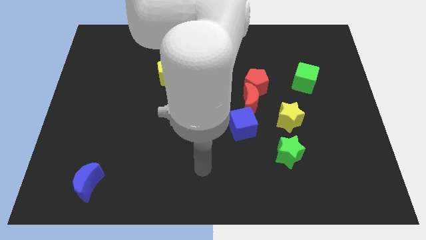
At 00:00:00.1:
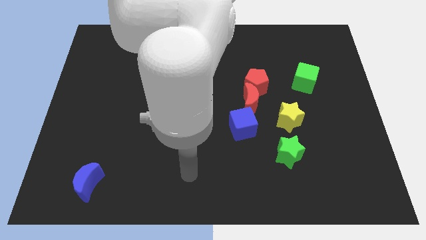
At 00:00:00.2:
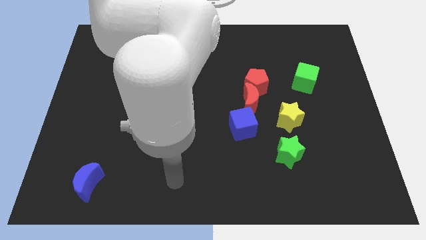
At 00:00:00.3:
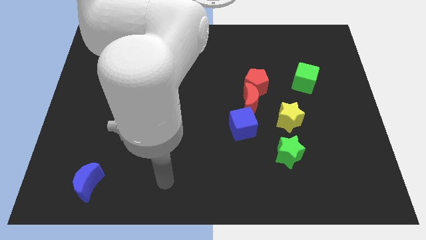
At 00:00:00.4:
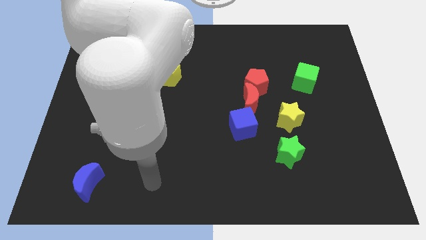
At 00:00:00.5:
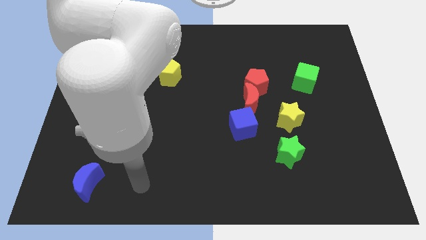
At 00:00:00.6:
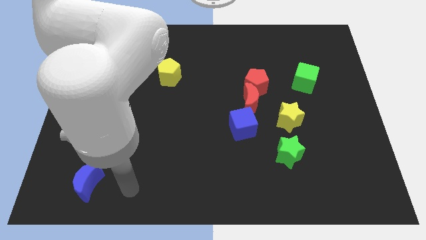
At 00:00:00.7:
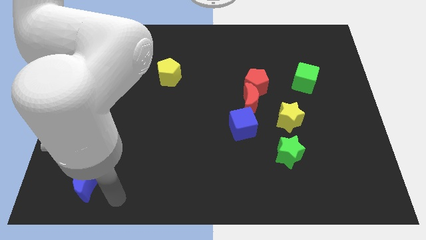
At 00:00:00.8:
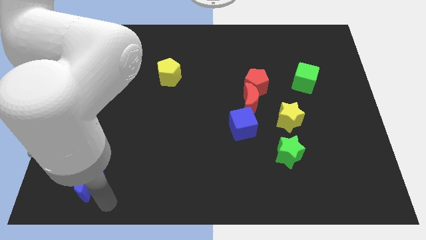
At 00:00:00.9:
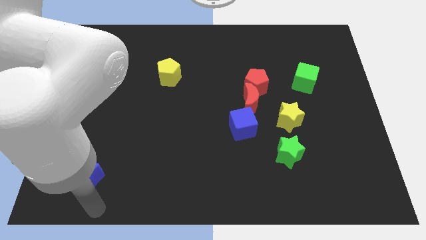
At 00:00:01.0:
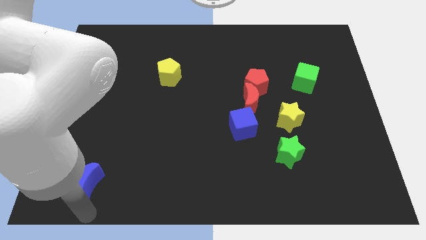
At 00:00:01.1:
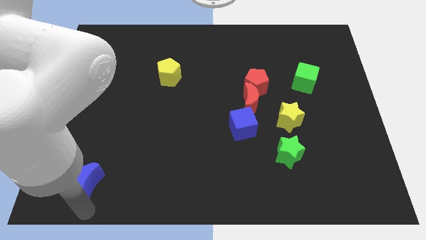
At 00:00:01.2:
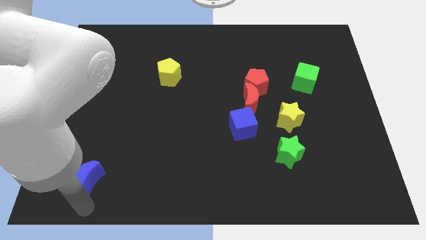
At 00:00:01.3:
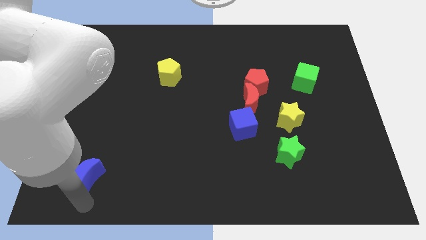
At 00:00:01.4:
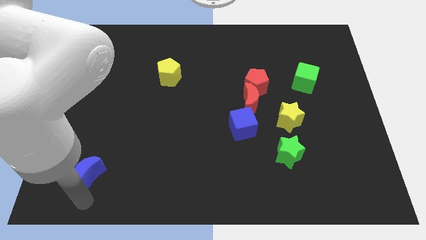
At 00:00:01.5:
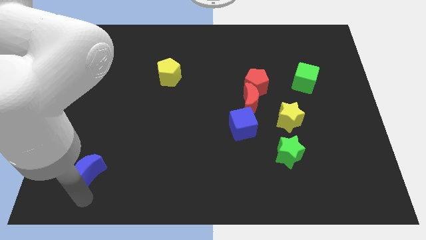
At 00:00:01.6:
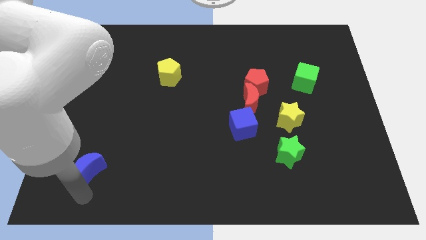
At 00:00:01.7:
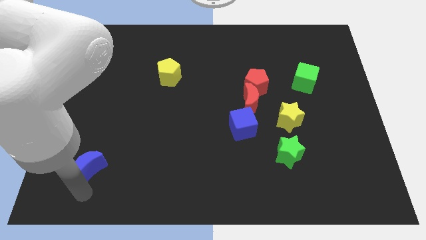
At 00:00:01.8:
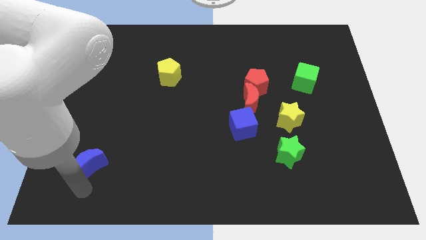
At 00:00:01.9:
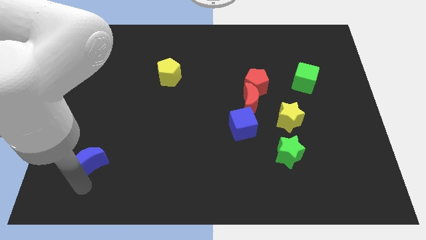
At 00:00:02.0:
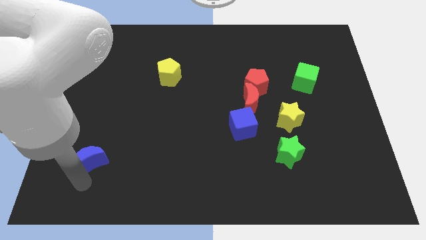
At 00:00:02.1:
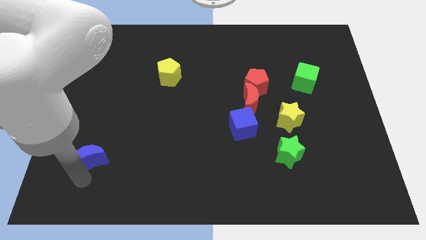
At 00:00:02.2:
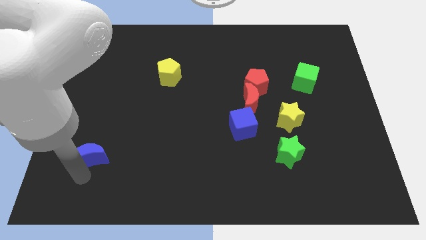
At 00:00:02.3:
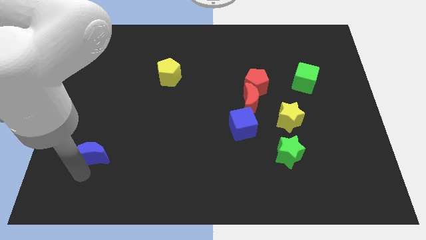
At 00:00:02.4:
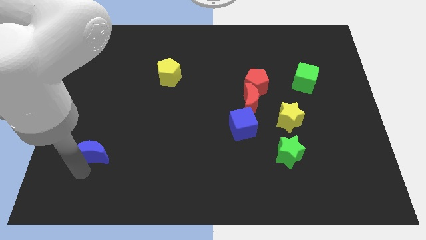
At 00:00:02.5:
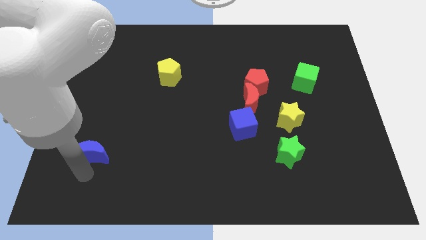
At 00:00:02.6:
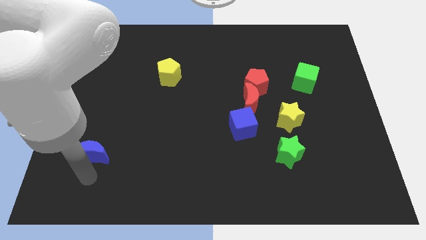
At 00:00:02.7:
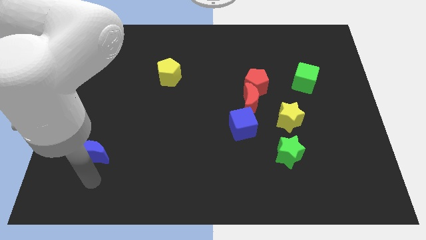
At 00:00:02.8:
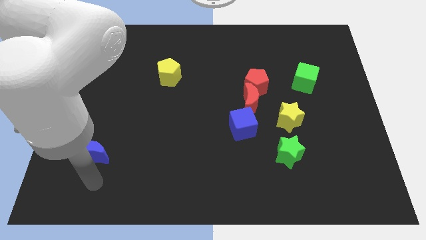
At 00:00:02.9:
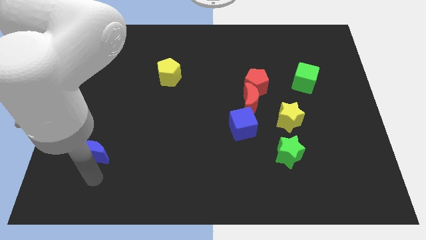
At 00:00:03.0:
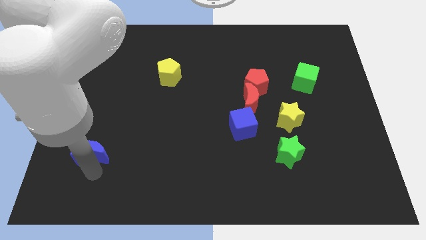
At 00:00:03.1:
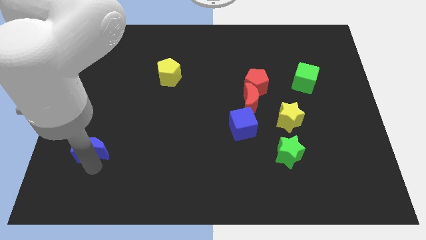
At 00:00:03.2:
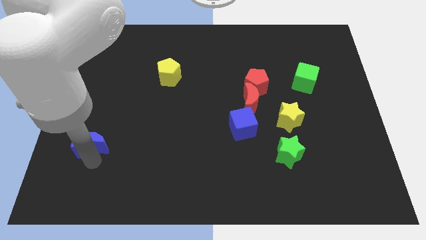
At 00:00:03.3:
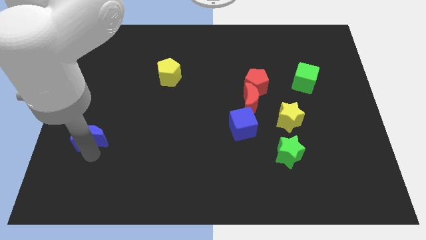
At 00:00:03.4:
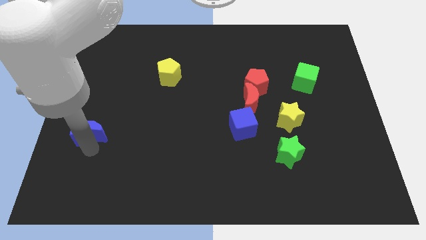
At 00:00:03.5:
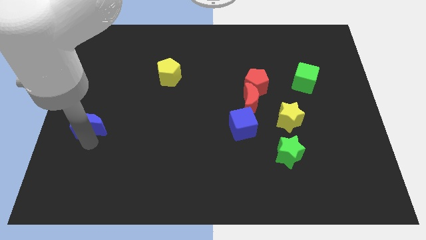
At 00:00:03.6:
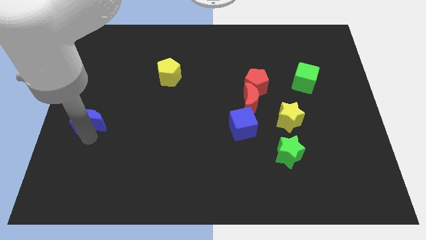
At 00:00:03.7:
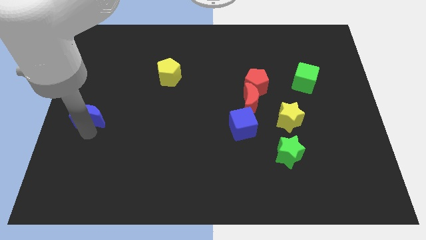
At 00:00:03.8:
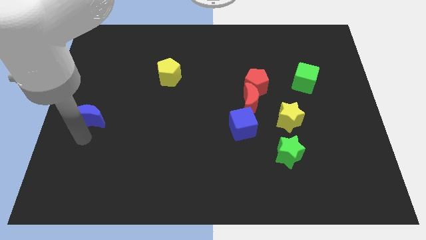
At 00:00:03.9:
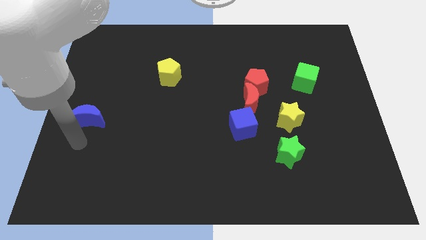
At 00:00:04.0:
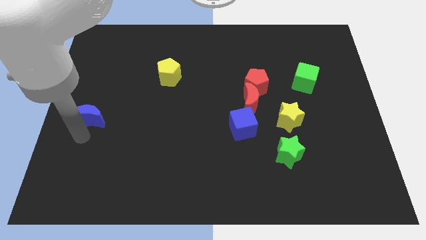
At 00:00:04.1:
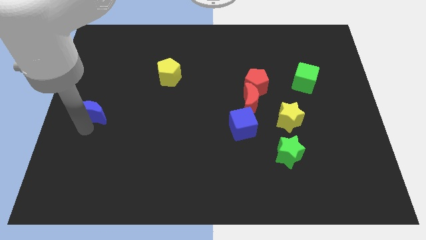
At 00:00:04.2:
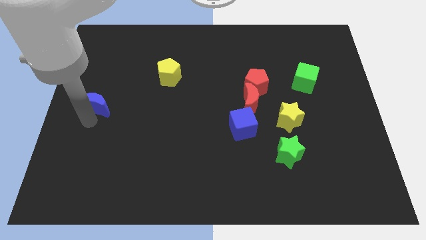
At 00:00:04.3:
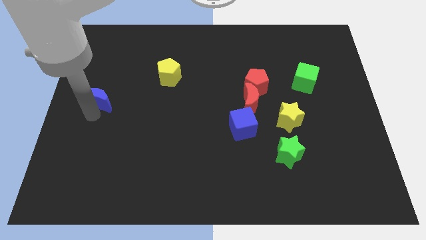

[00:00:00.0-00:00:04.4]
push the blue moon up

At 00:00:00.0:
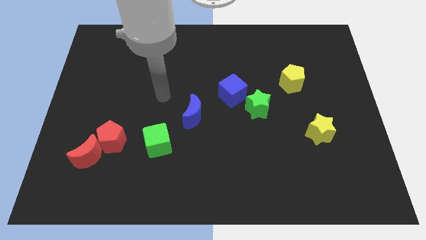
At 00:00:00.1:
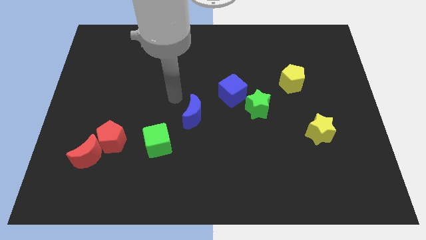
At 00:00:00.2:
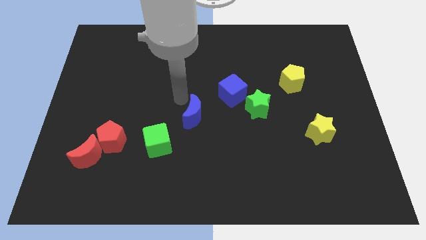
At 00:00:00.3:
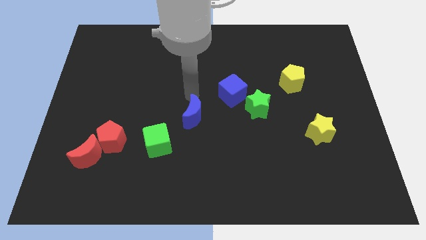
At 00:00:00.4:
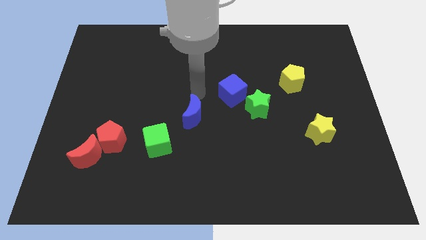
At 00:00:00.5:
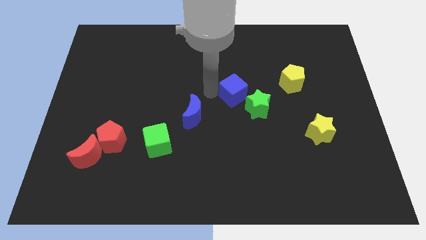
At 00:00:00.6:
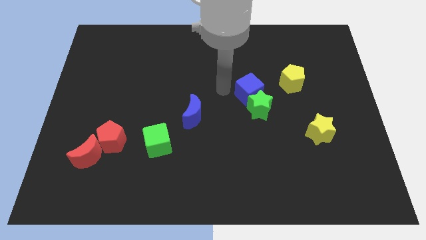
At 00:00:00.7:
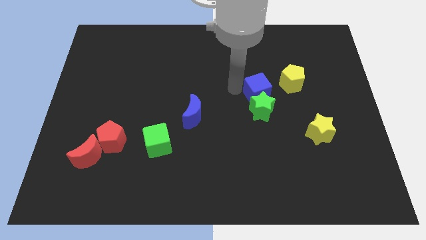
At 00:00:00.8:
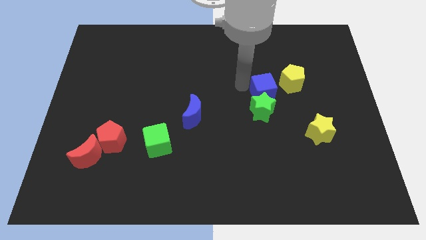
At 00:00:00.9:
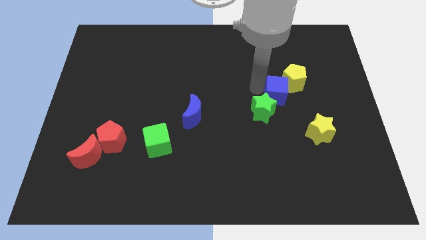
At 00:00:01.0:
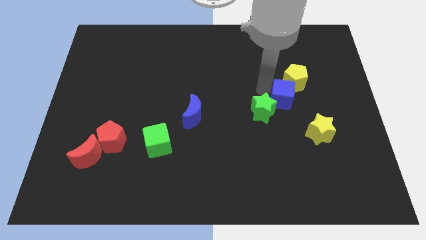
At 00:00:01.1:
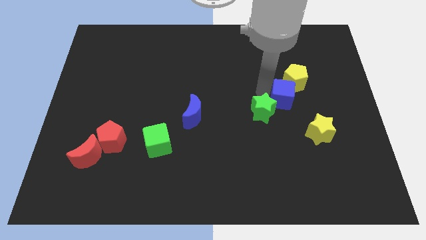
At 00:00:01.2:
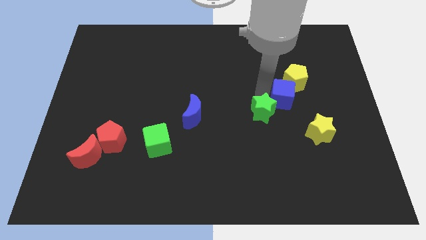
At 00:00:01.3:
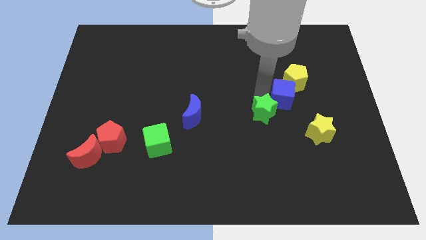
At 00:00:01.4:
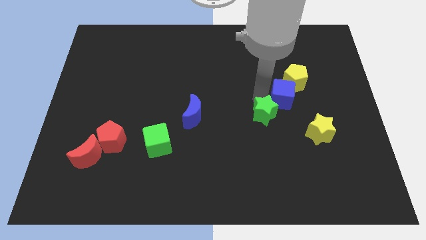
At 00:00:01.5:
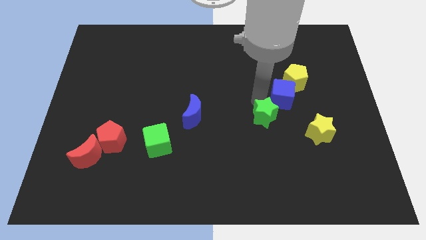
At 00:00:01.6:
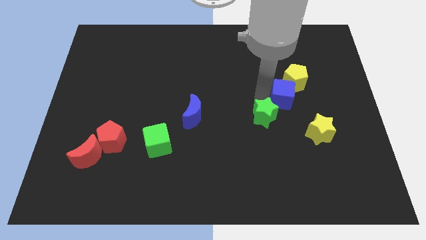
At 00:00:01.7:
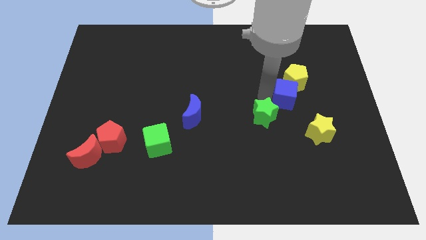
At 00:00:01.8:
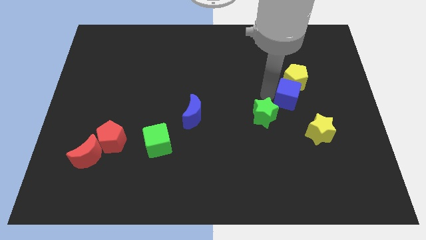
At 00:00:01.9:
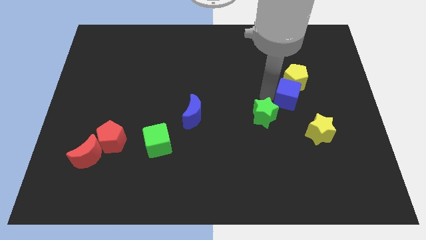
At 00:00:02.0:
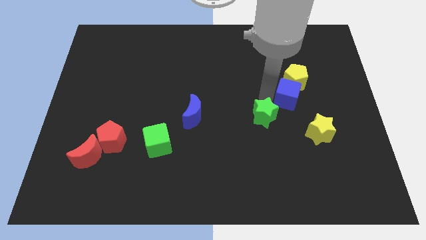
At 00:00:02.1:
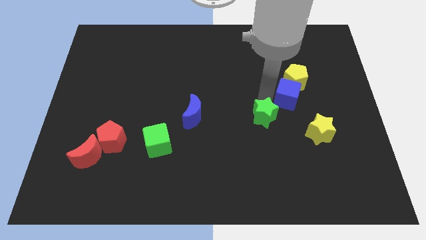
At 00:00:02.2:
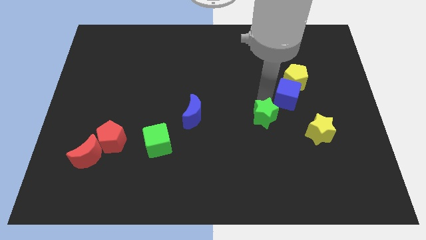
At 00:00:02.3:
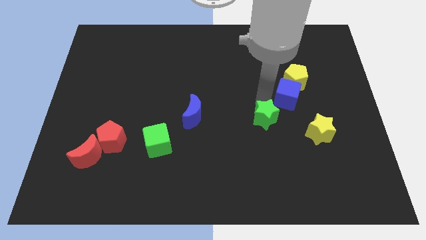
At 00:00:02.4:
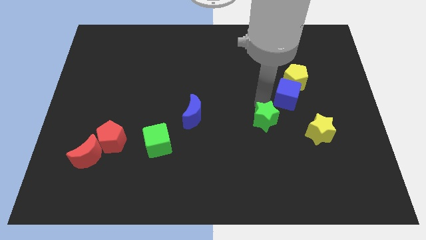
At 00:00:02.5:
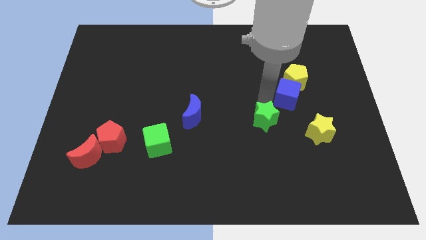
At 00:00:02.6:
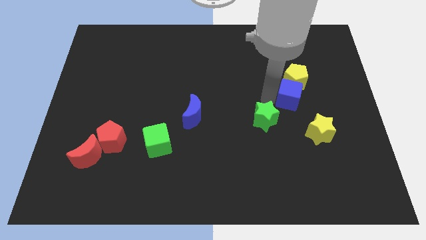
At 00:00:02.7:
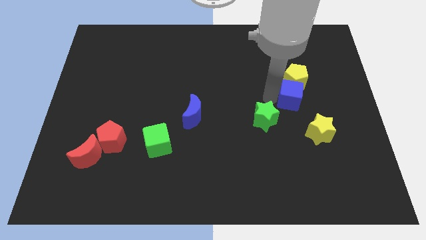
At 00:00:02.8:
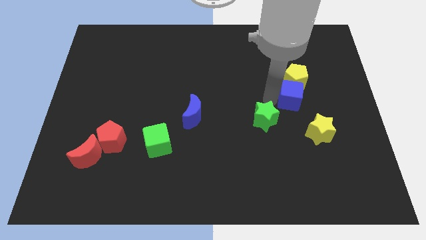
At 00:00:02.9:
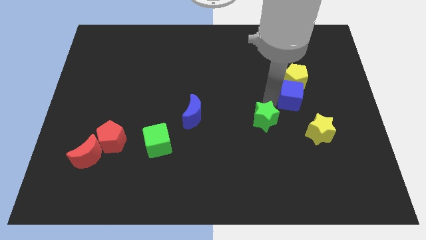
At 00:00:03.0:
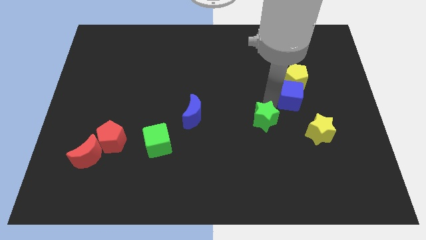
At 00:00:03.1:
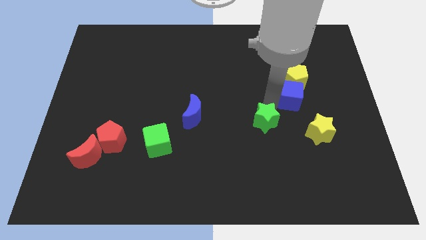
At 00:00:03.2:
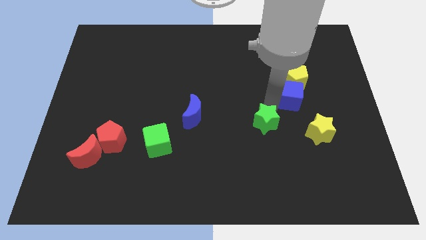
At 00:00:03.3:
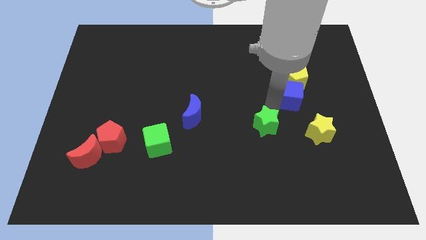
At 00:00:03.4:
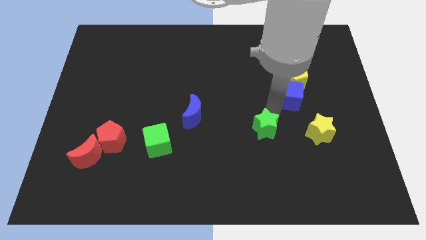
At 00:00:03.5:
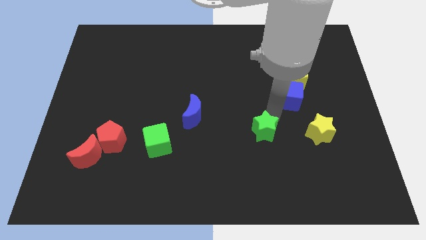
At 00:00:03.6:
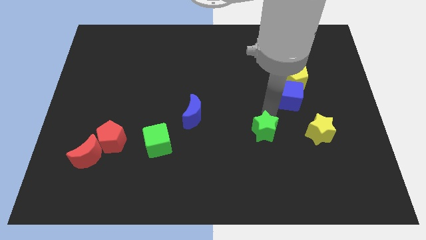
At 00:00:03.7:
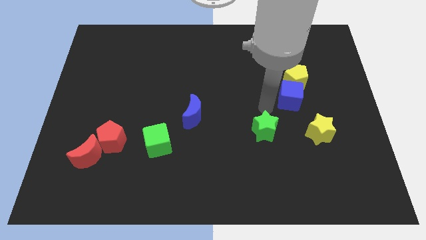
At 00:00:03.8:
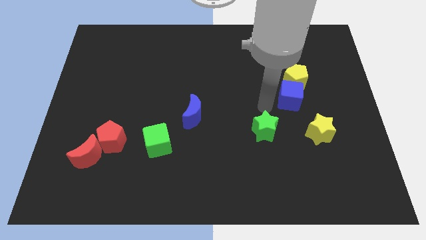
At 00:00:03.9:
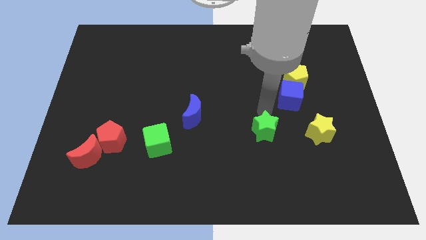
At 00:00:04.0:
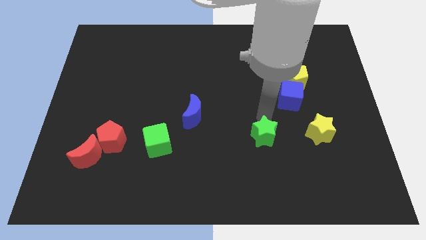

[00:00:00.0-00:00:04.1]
push the green star somewhat downwards
